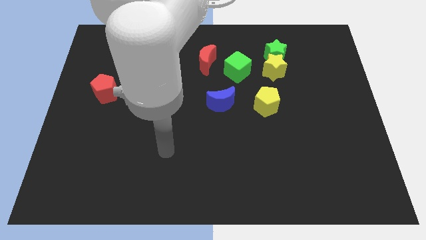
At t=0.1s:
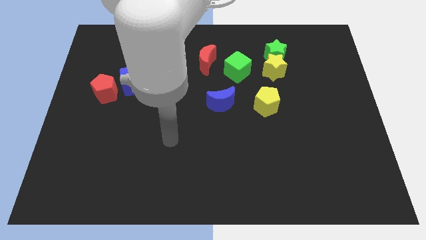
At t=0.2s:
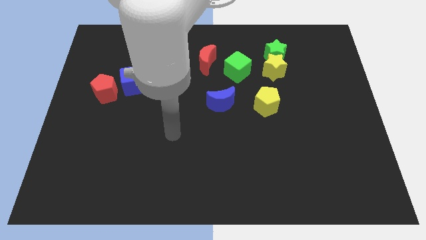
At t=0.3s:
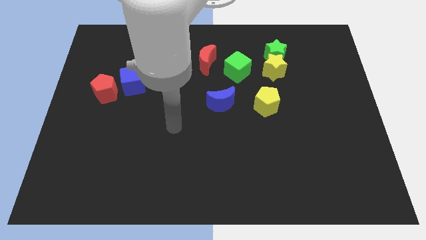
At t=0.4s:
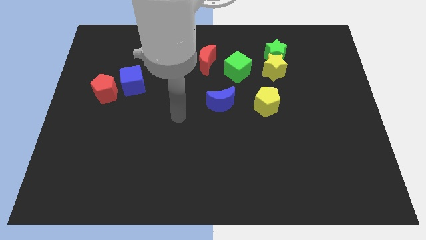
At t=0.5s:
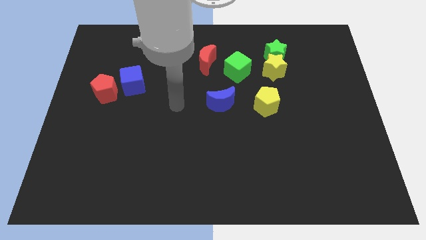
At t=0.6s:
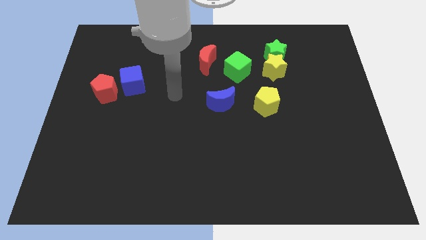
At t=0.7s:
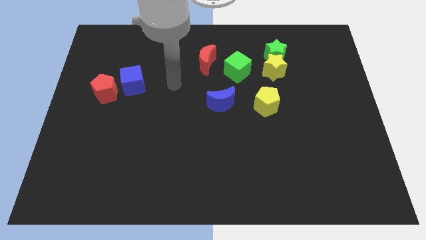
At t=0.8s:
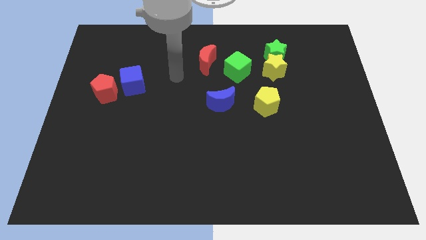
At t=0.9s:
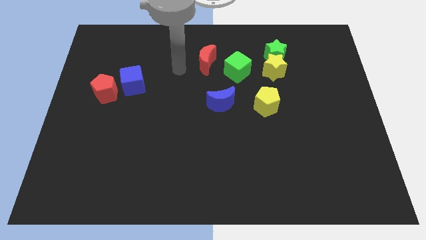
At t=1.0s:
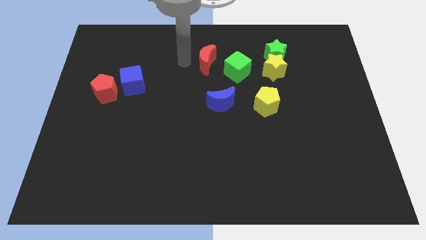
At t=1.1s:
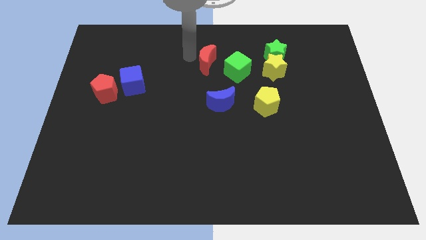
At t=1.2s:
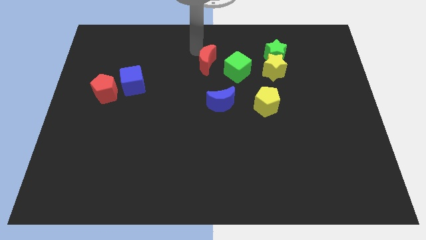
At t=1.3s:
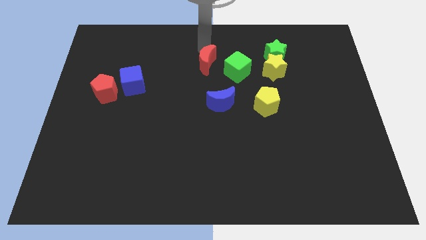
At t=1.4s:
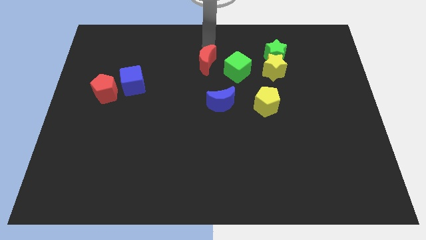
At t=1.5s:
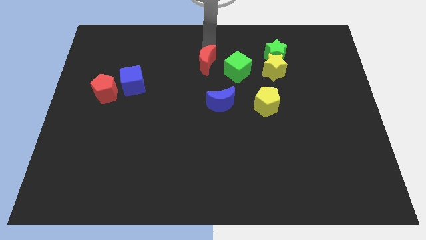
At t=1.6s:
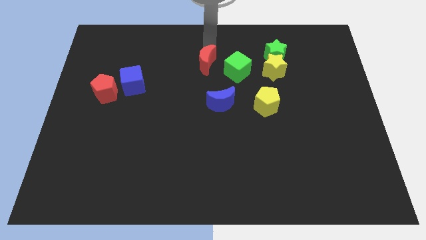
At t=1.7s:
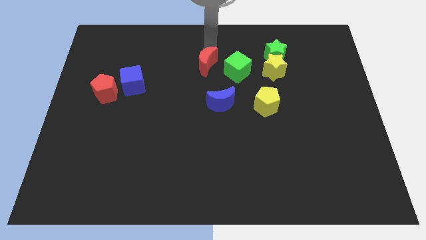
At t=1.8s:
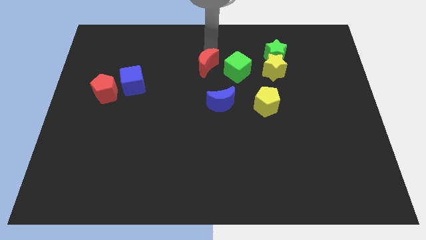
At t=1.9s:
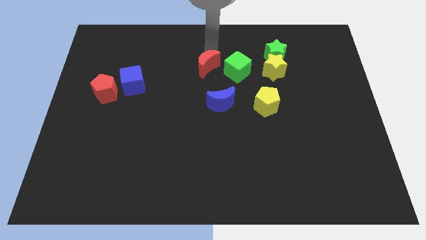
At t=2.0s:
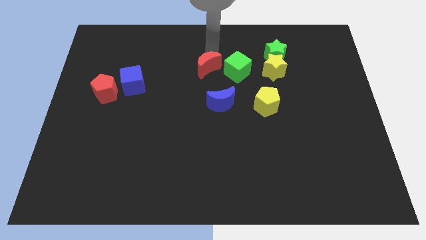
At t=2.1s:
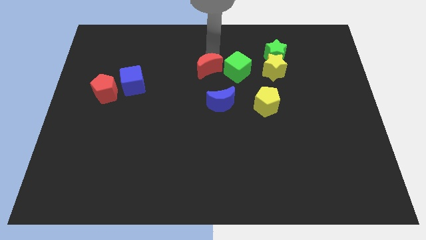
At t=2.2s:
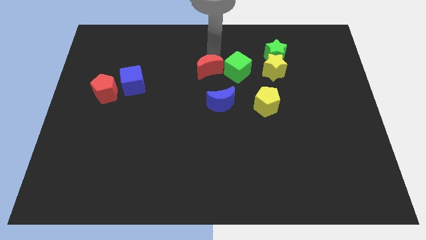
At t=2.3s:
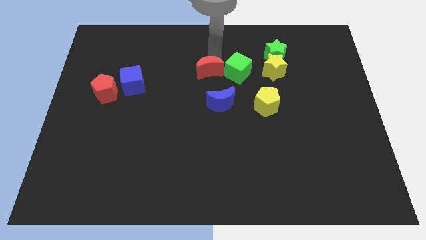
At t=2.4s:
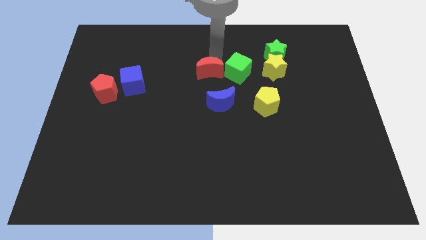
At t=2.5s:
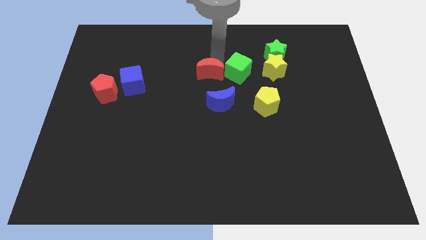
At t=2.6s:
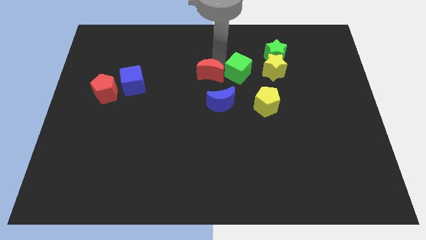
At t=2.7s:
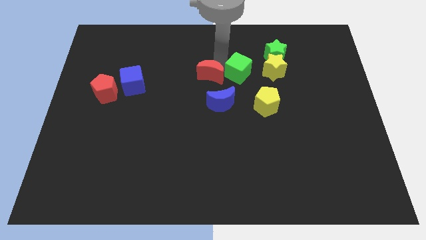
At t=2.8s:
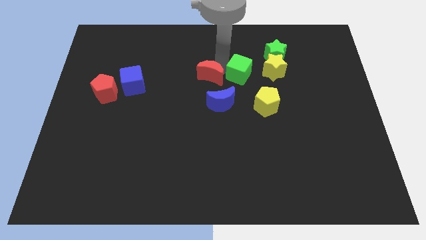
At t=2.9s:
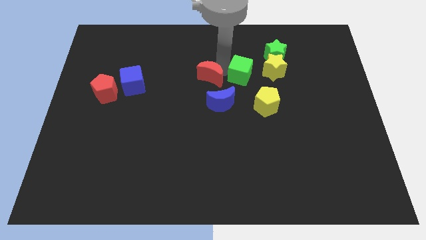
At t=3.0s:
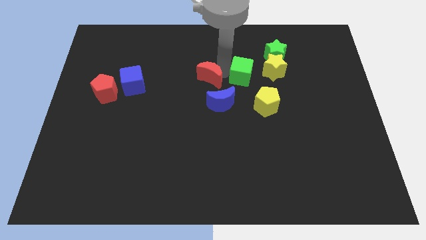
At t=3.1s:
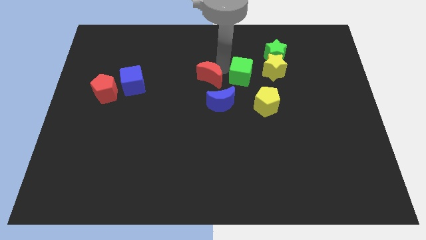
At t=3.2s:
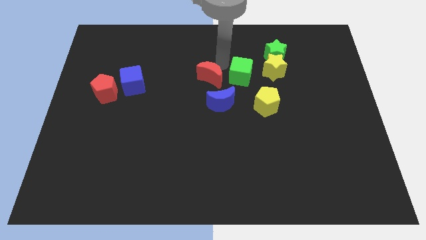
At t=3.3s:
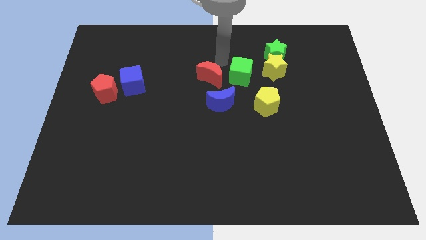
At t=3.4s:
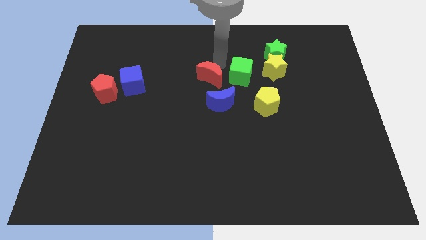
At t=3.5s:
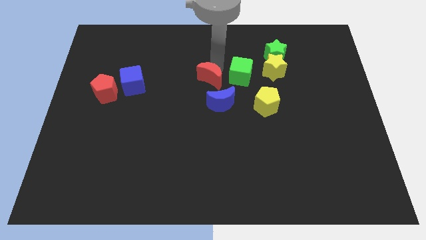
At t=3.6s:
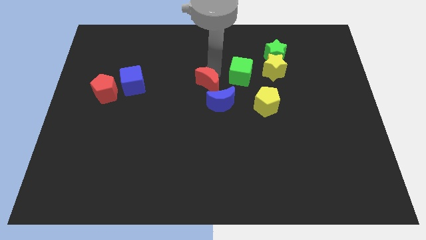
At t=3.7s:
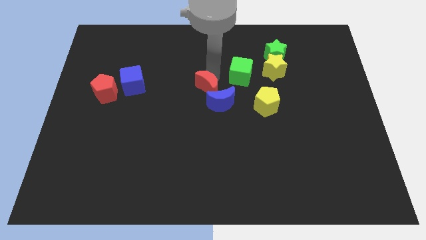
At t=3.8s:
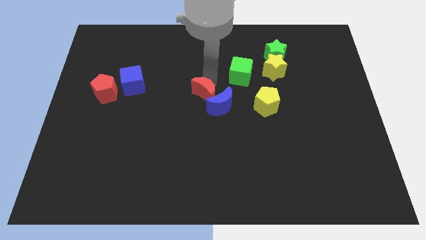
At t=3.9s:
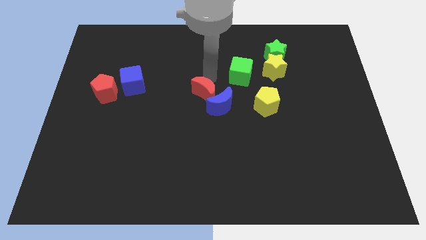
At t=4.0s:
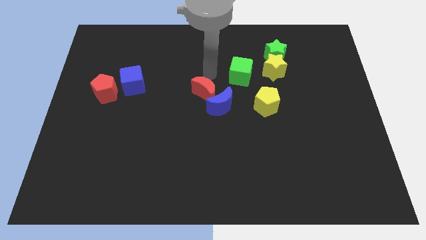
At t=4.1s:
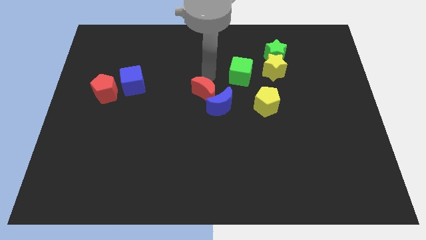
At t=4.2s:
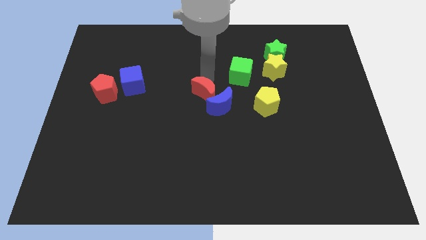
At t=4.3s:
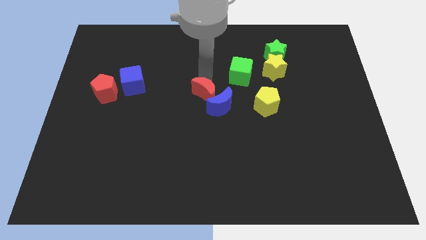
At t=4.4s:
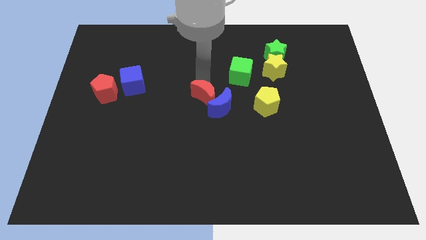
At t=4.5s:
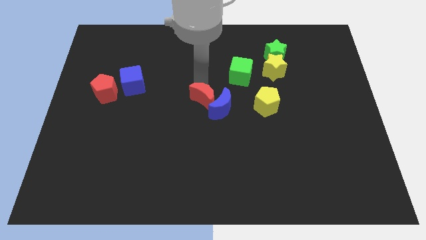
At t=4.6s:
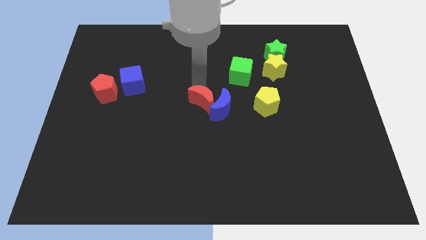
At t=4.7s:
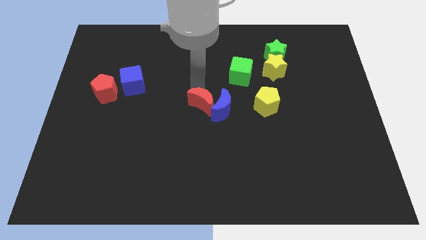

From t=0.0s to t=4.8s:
slide the red moon diagonally down and to the left of the blue moon

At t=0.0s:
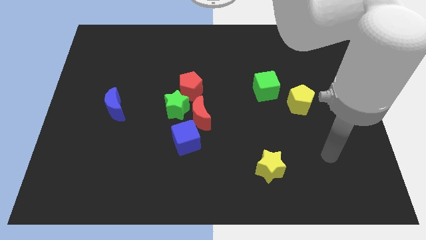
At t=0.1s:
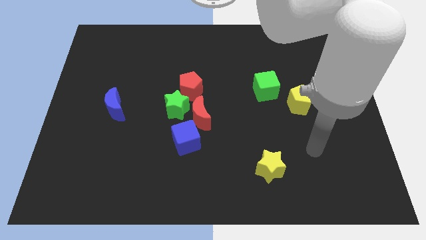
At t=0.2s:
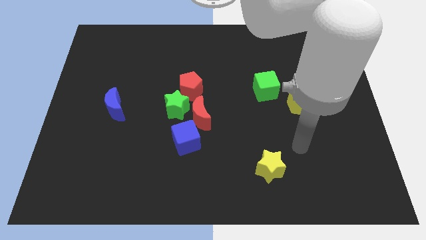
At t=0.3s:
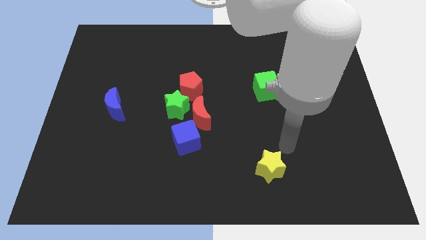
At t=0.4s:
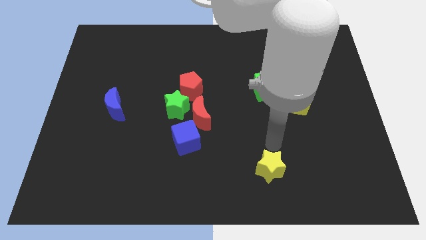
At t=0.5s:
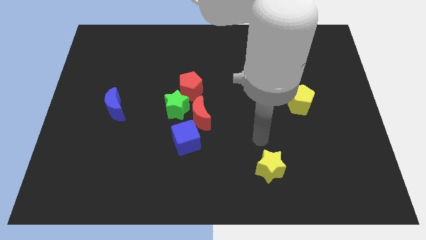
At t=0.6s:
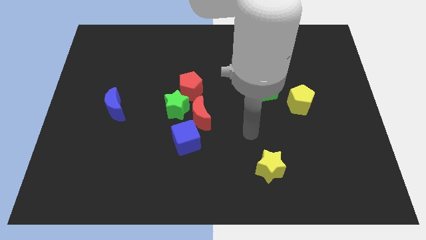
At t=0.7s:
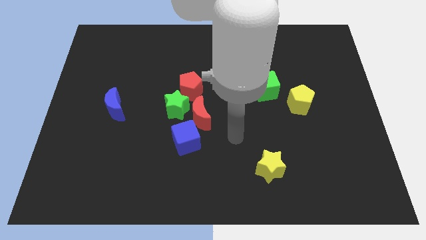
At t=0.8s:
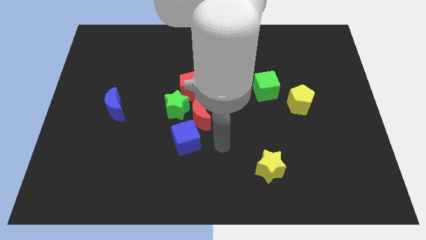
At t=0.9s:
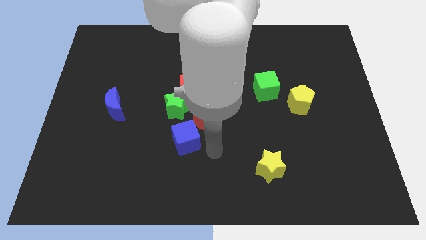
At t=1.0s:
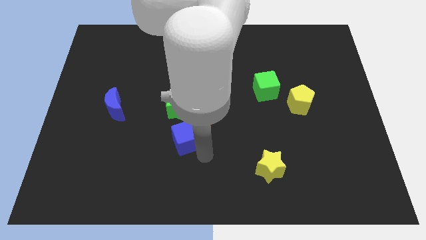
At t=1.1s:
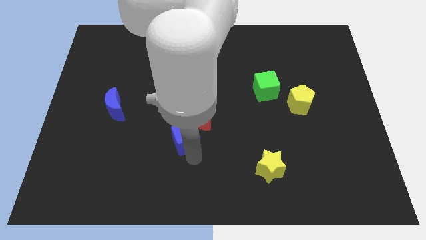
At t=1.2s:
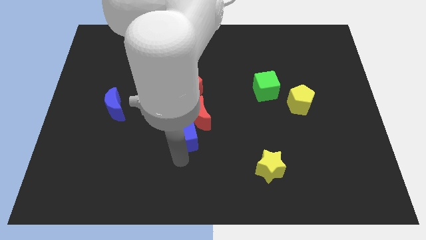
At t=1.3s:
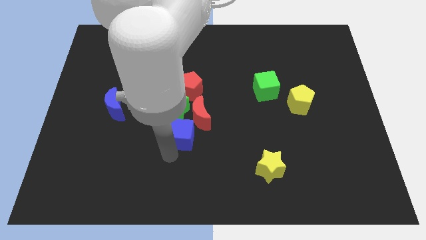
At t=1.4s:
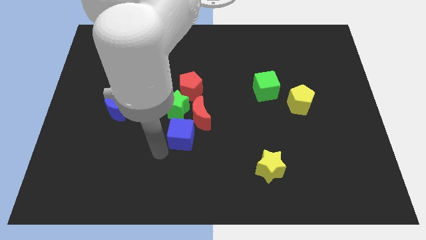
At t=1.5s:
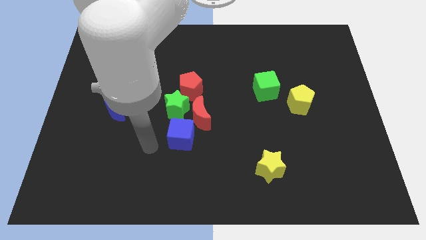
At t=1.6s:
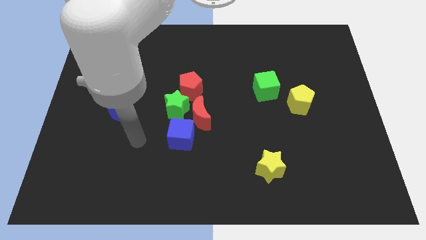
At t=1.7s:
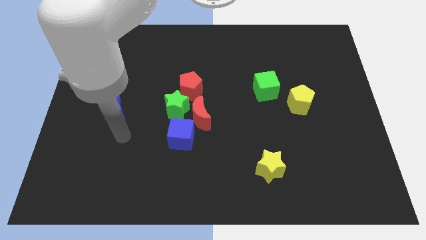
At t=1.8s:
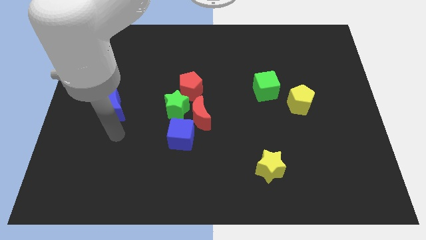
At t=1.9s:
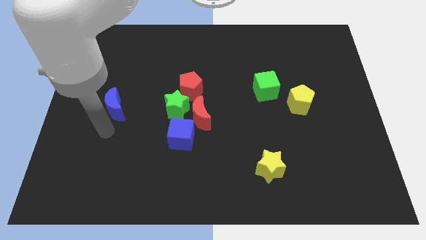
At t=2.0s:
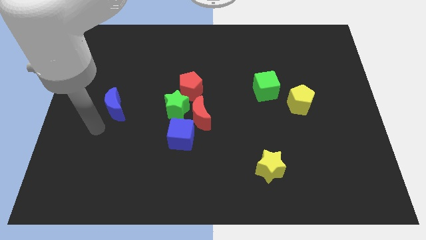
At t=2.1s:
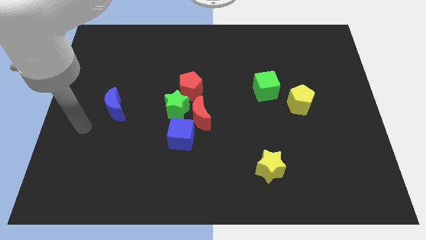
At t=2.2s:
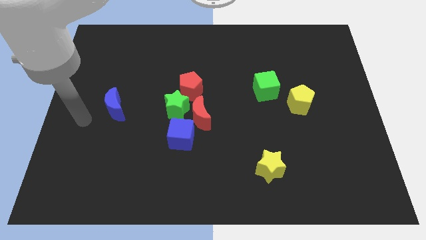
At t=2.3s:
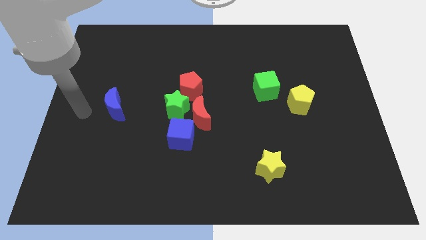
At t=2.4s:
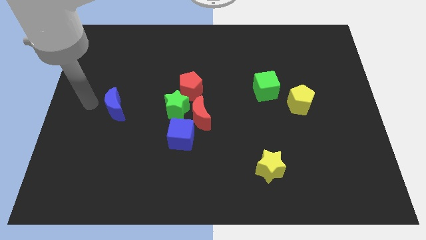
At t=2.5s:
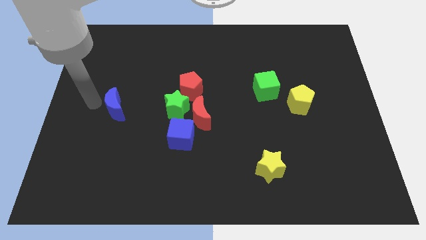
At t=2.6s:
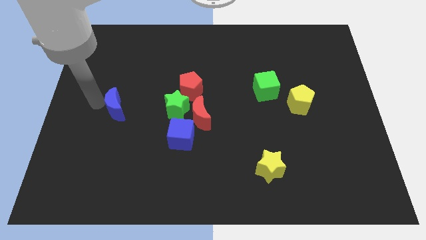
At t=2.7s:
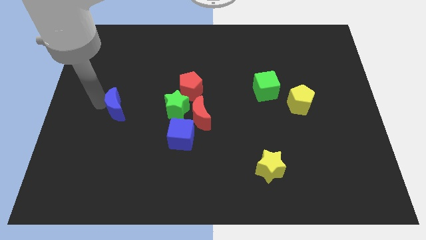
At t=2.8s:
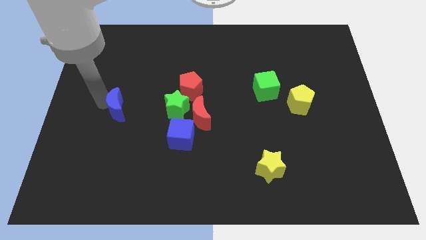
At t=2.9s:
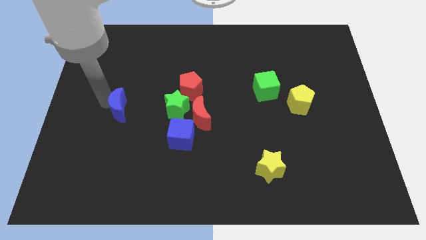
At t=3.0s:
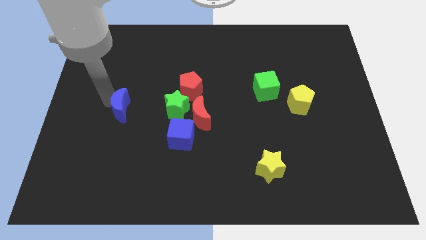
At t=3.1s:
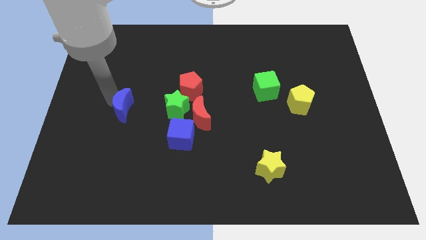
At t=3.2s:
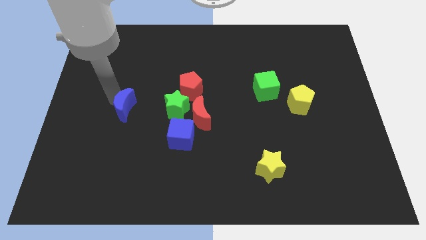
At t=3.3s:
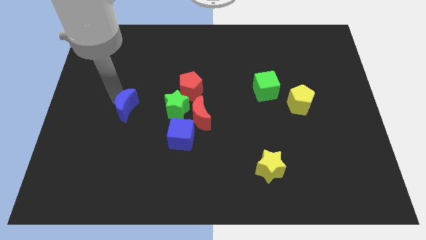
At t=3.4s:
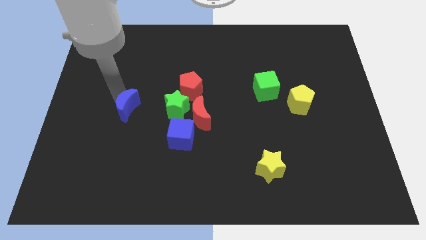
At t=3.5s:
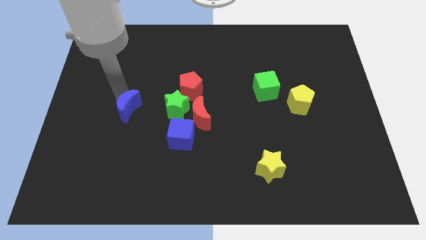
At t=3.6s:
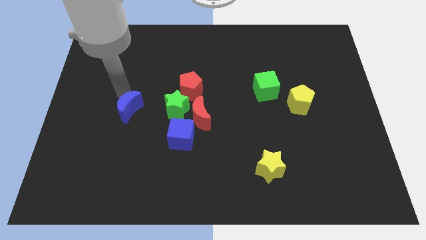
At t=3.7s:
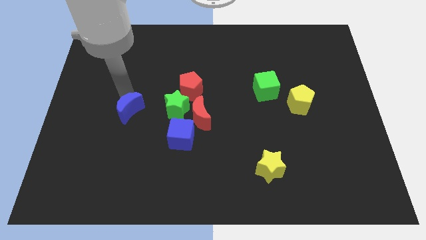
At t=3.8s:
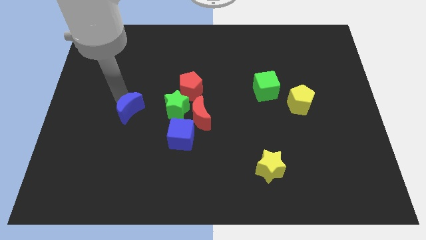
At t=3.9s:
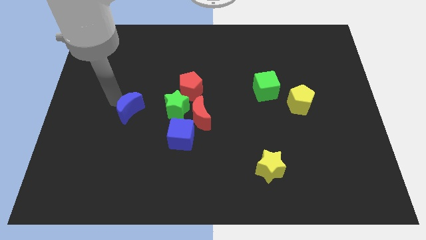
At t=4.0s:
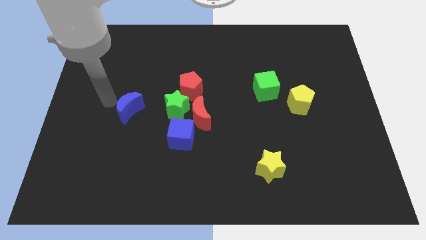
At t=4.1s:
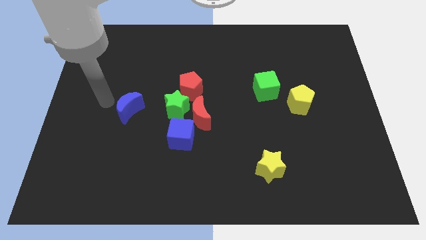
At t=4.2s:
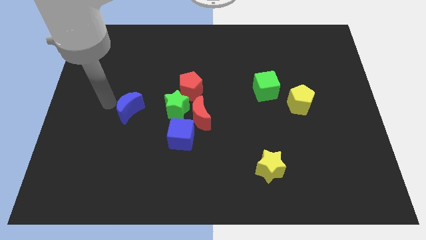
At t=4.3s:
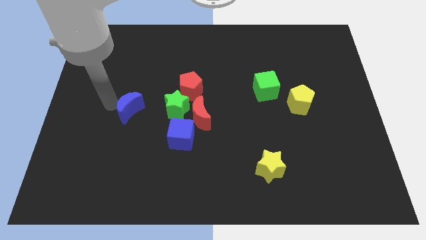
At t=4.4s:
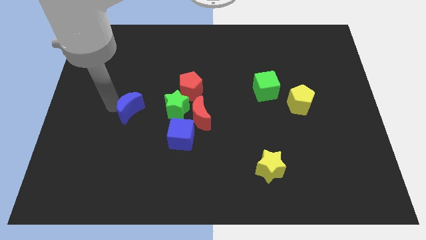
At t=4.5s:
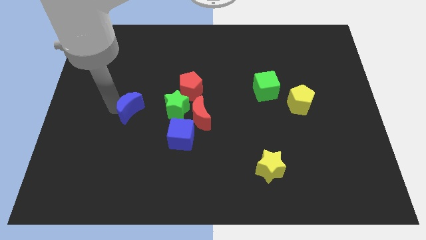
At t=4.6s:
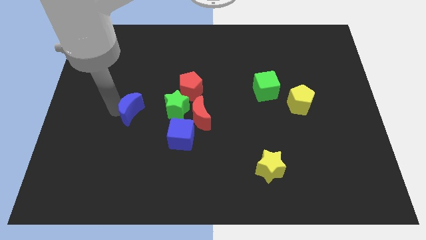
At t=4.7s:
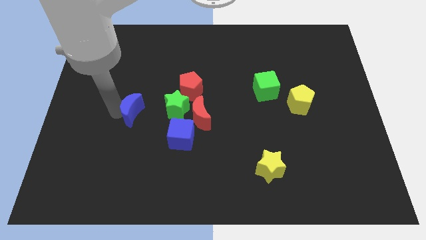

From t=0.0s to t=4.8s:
slide the blue moon just left of the red moon
